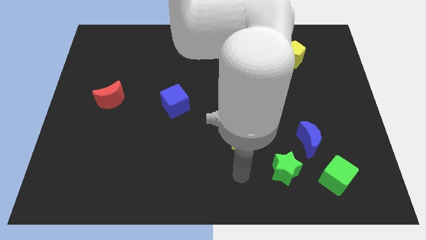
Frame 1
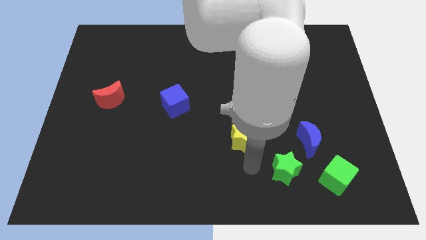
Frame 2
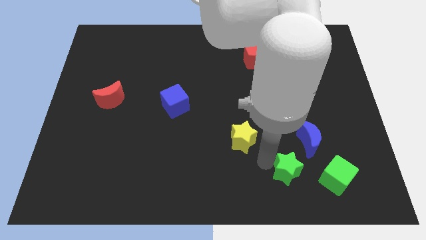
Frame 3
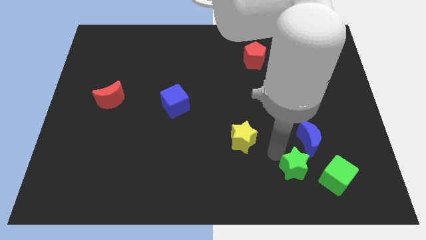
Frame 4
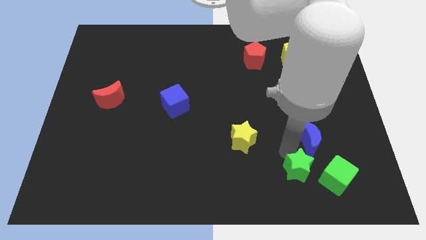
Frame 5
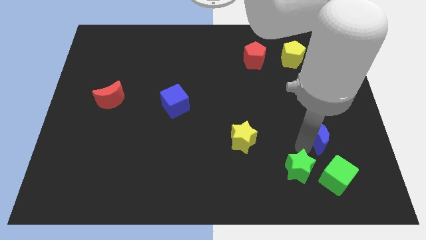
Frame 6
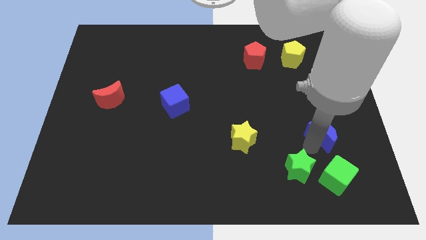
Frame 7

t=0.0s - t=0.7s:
move the green star away from the blue moon

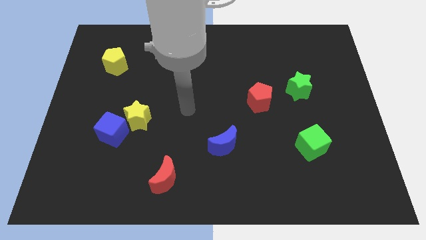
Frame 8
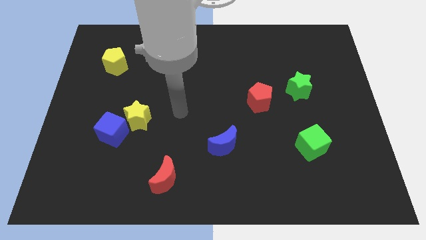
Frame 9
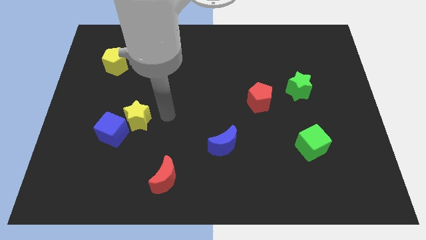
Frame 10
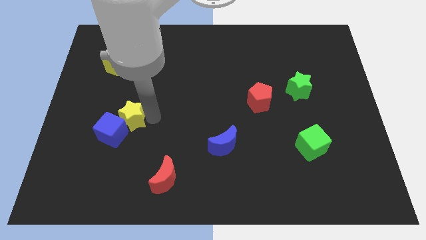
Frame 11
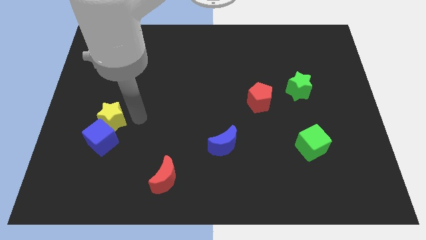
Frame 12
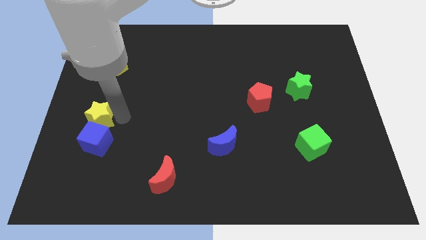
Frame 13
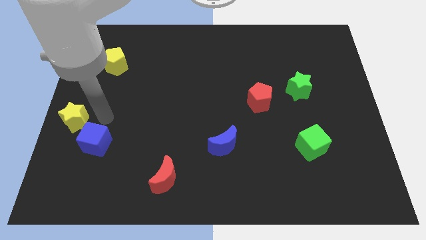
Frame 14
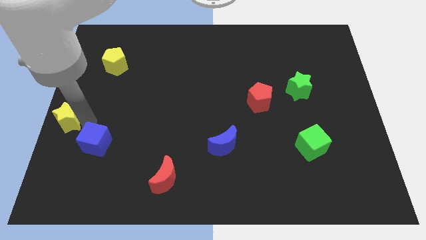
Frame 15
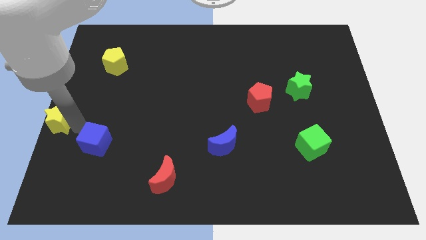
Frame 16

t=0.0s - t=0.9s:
pull the blue cube apart from the yellow star

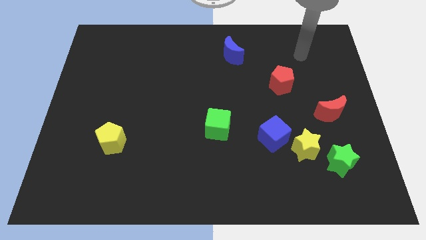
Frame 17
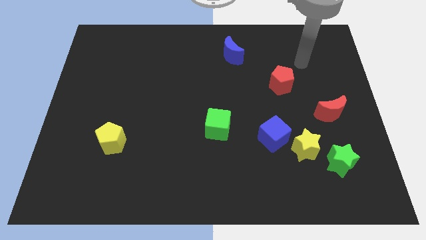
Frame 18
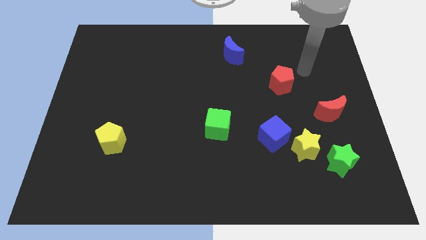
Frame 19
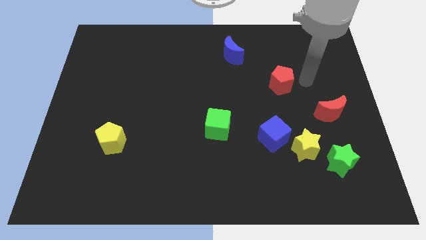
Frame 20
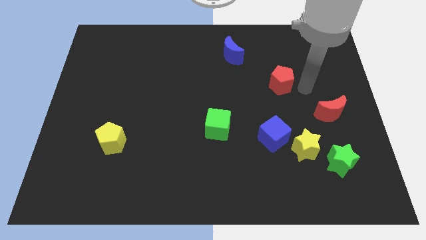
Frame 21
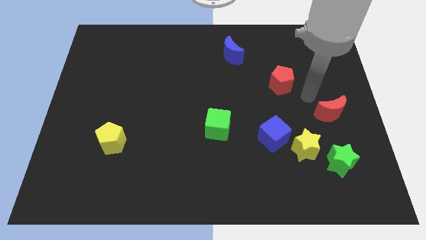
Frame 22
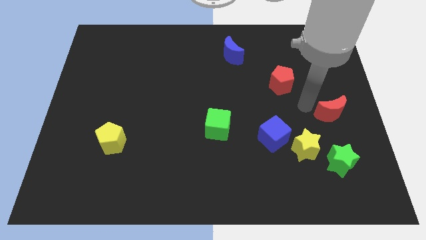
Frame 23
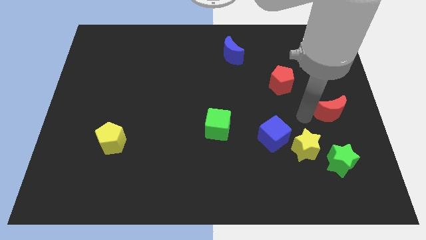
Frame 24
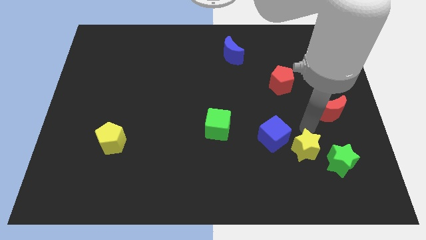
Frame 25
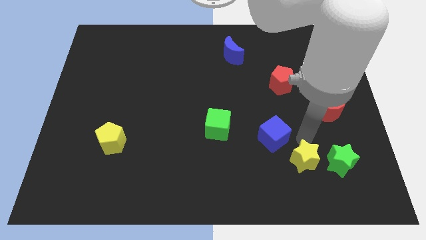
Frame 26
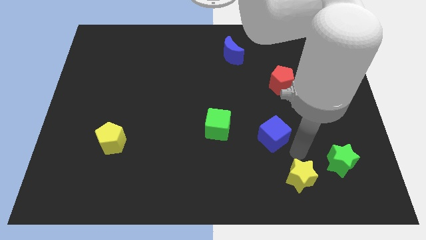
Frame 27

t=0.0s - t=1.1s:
separate the blue cube from the yellow star

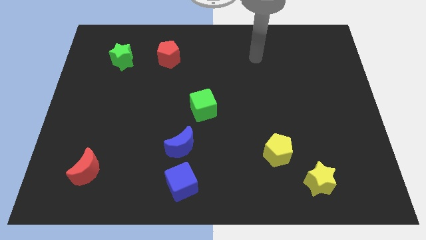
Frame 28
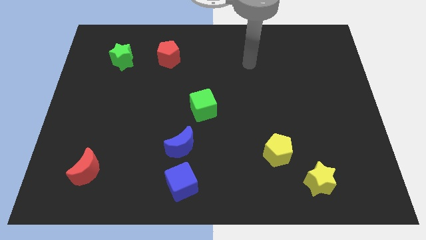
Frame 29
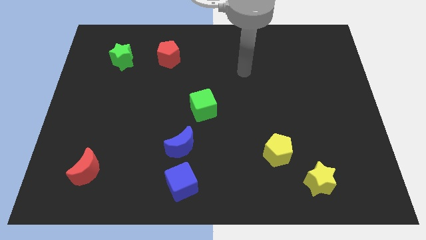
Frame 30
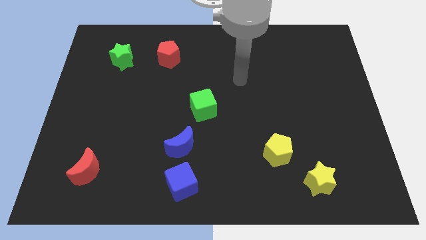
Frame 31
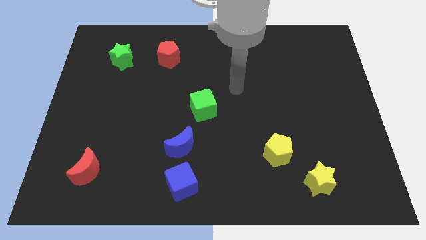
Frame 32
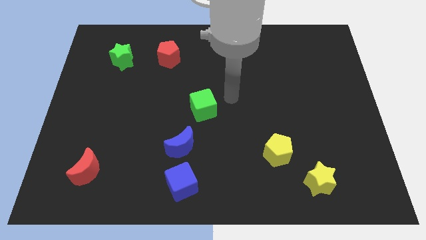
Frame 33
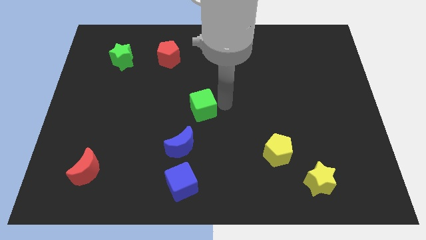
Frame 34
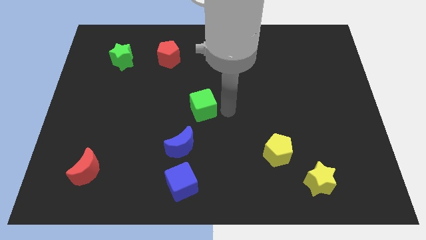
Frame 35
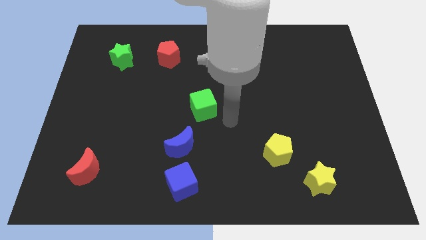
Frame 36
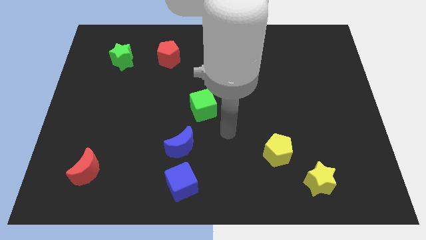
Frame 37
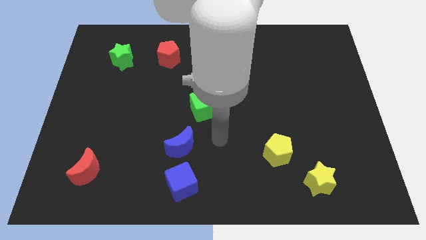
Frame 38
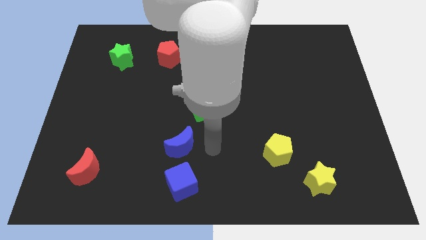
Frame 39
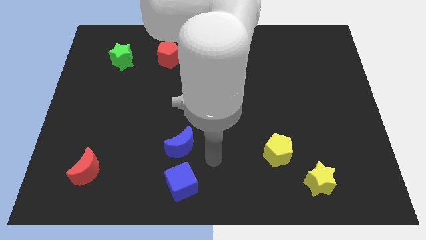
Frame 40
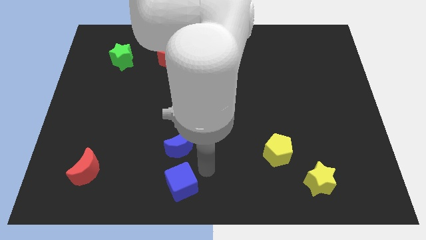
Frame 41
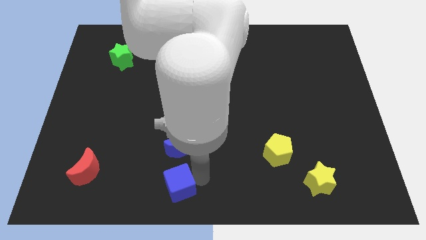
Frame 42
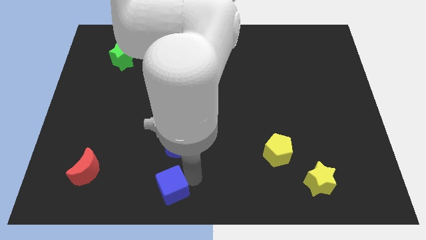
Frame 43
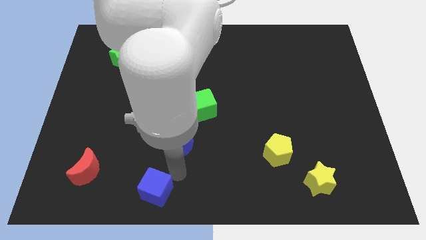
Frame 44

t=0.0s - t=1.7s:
move the blue moon away from the blue cube

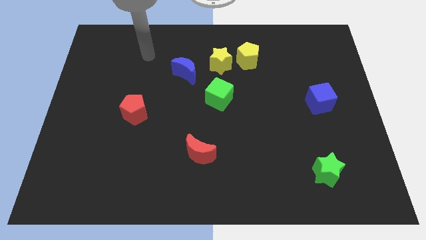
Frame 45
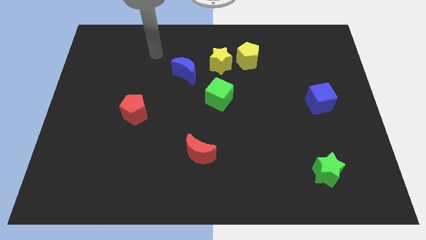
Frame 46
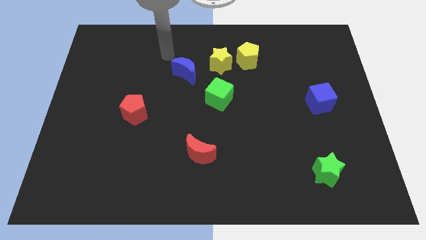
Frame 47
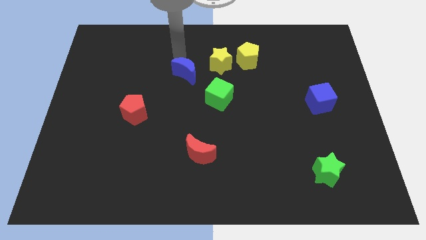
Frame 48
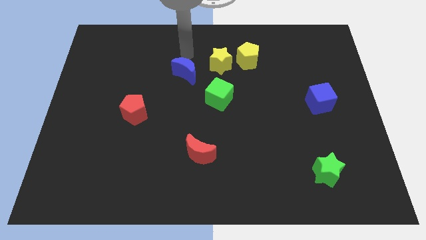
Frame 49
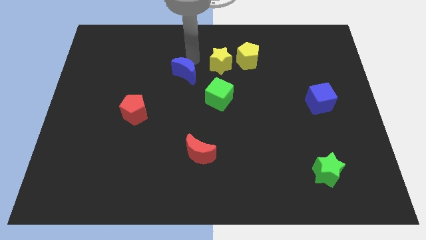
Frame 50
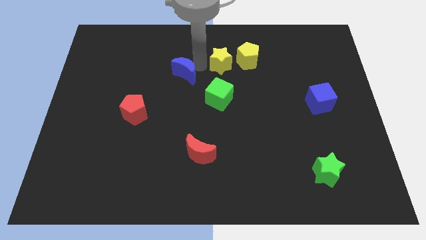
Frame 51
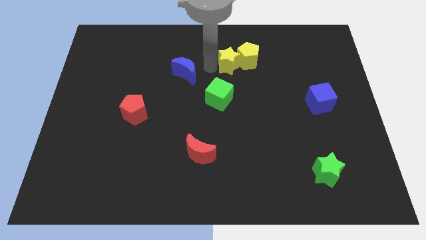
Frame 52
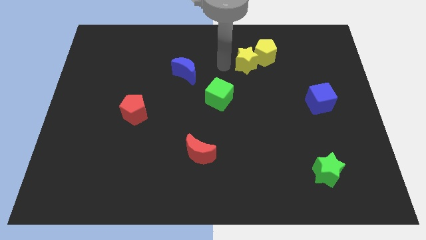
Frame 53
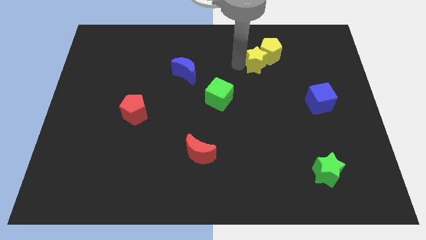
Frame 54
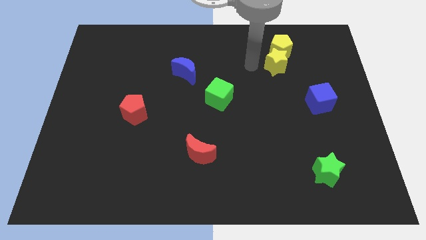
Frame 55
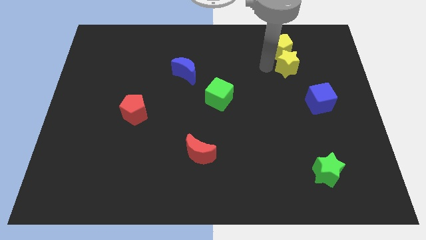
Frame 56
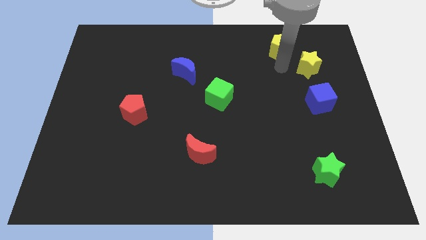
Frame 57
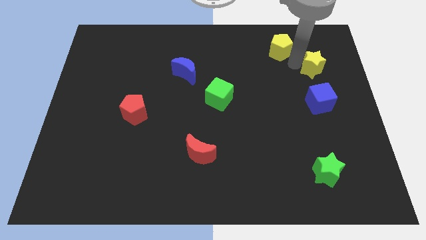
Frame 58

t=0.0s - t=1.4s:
separate the yellow pentagon from the yellow star

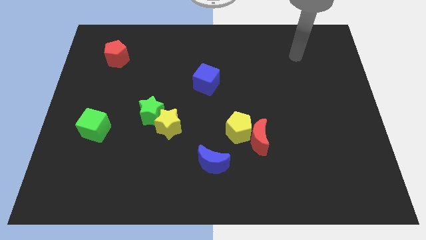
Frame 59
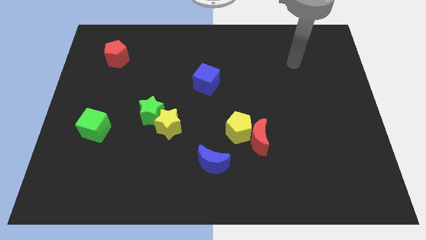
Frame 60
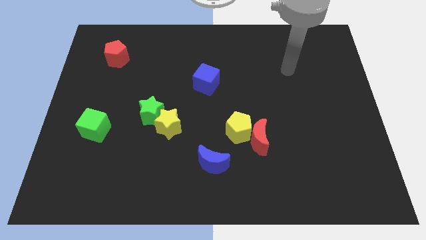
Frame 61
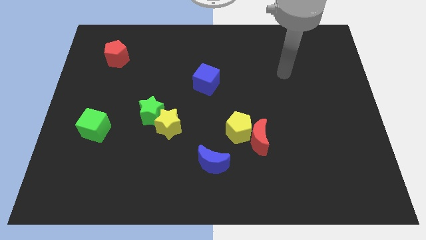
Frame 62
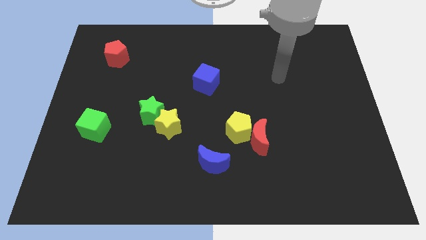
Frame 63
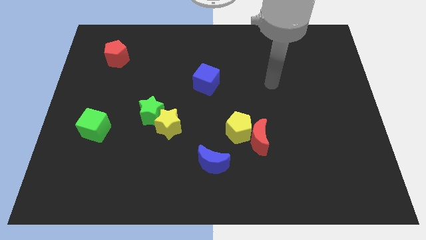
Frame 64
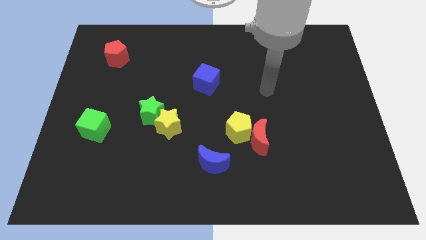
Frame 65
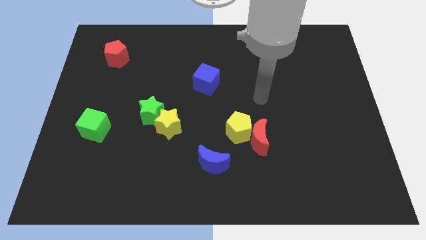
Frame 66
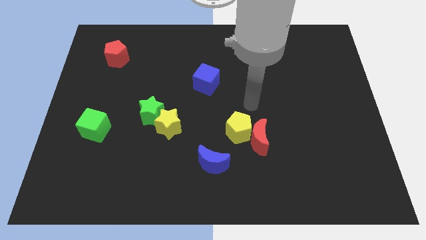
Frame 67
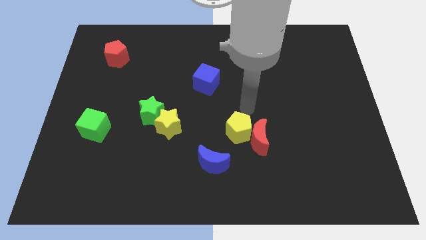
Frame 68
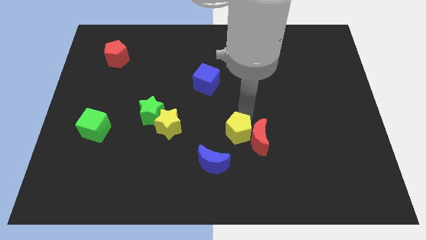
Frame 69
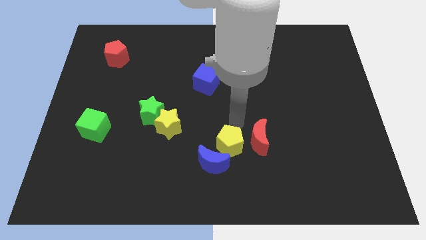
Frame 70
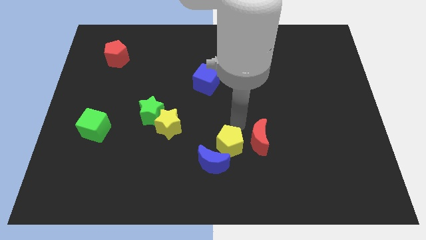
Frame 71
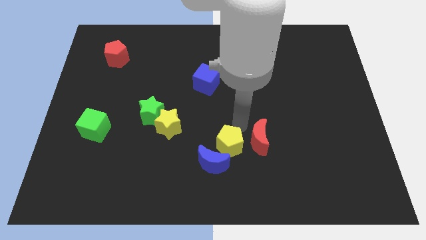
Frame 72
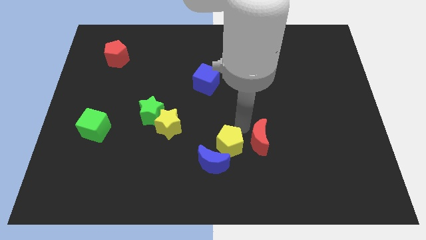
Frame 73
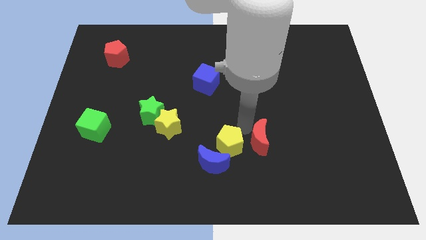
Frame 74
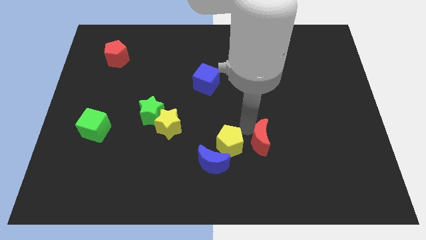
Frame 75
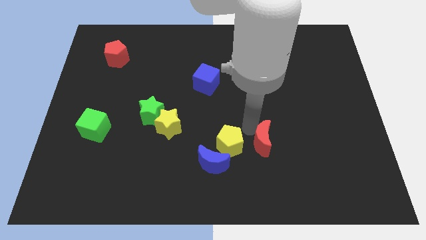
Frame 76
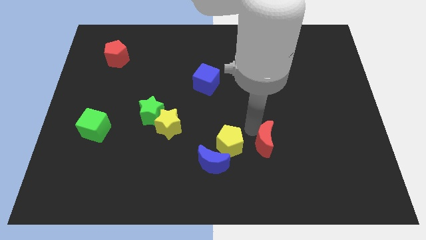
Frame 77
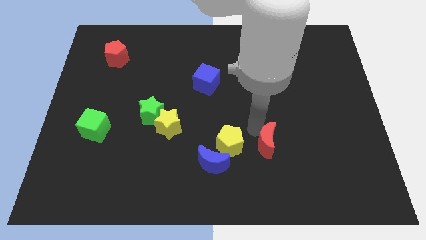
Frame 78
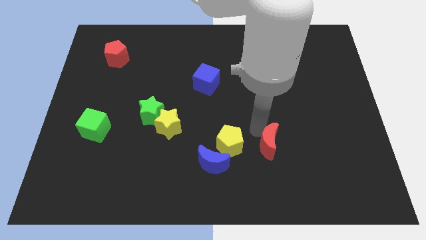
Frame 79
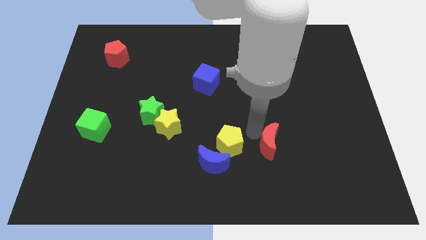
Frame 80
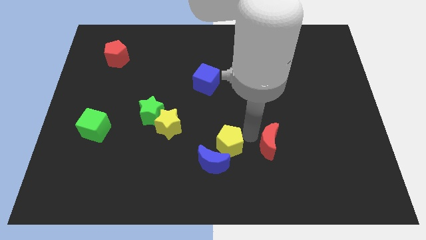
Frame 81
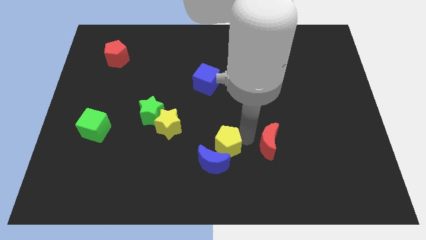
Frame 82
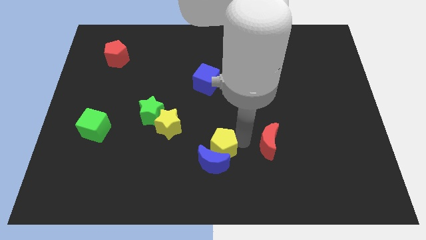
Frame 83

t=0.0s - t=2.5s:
separate the red moon from the yellow pentagon

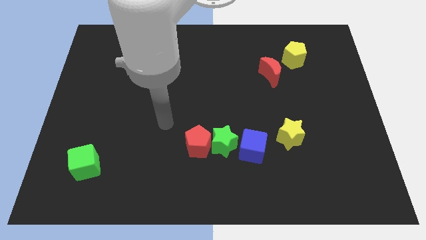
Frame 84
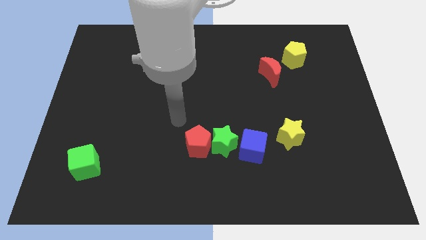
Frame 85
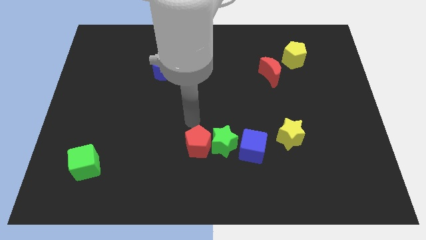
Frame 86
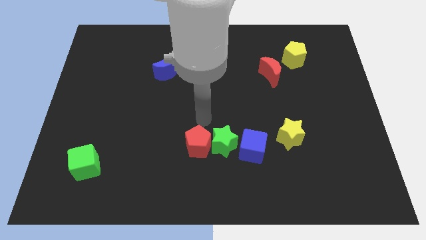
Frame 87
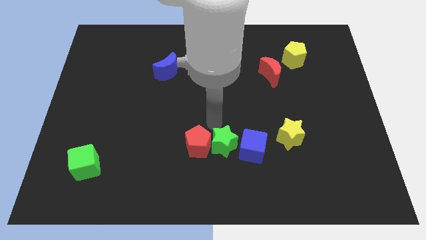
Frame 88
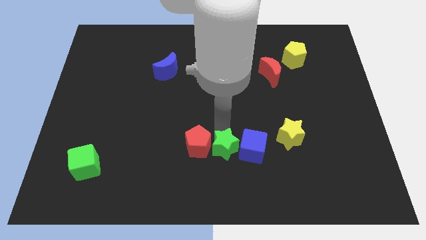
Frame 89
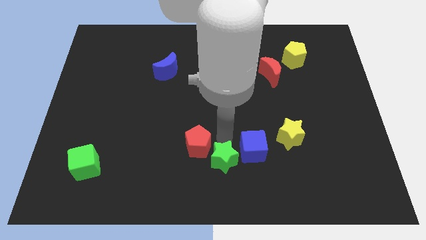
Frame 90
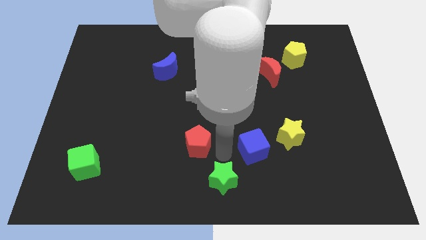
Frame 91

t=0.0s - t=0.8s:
move the red pentagon away from the green star

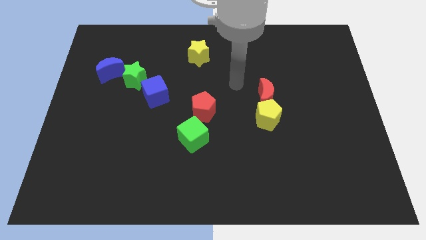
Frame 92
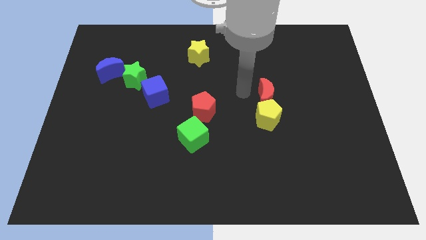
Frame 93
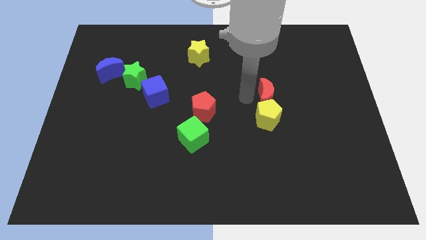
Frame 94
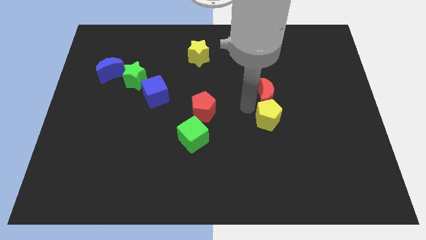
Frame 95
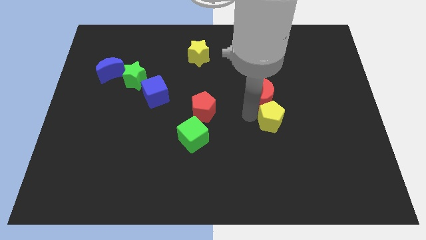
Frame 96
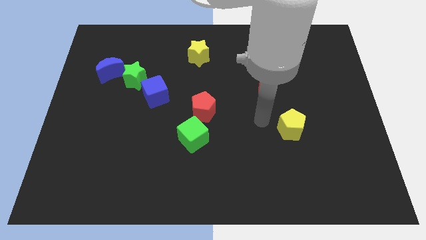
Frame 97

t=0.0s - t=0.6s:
pull the red moon apart from the yellow pentagon
